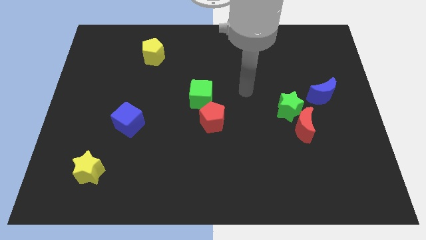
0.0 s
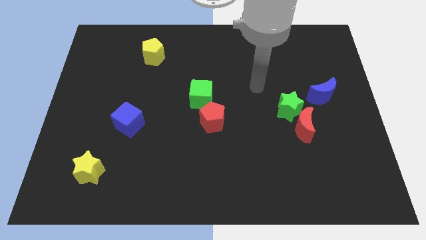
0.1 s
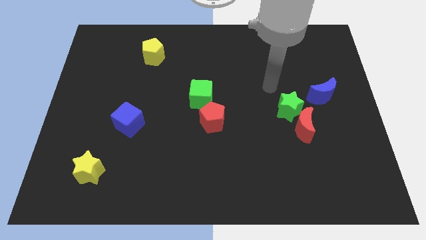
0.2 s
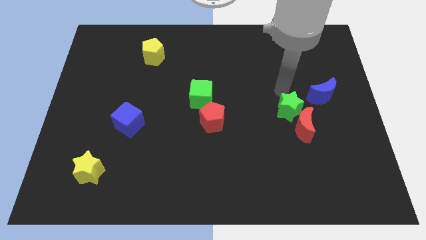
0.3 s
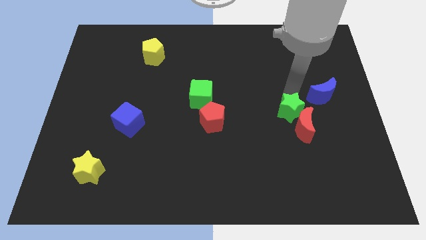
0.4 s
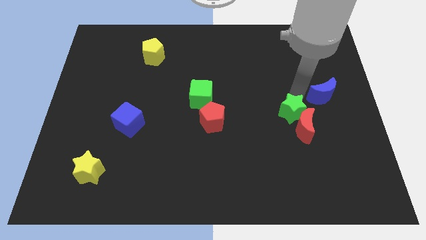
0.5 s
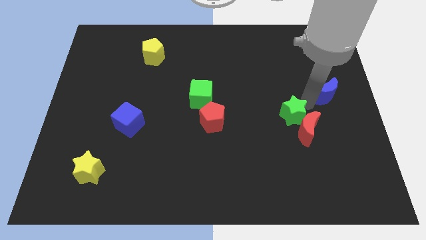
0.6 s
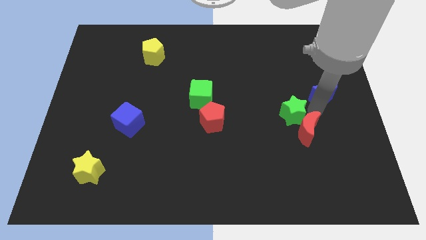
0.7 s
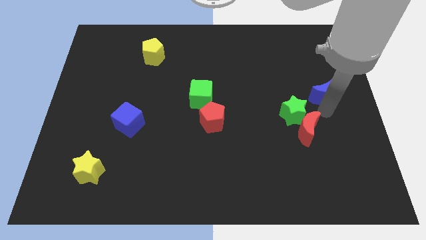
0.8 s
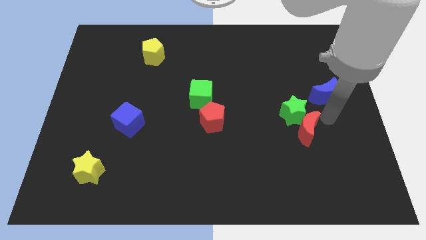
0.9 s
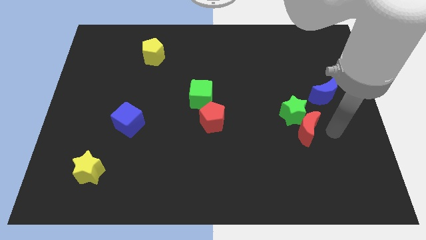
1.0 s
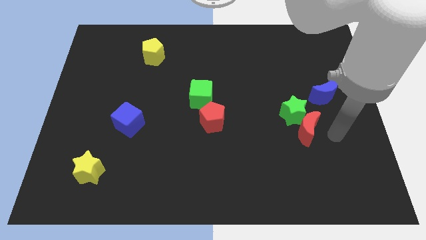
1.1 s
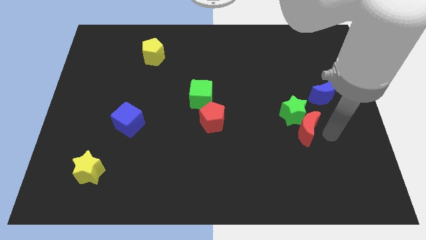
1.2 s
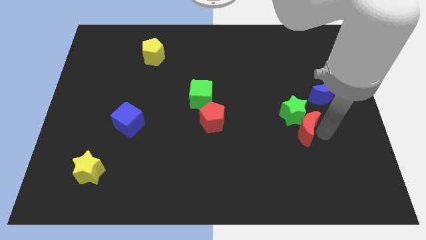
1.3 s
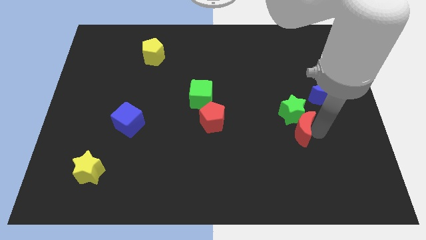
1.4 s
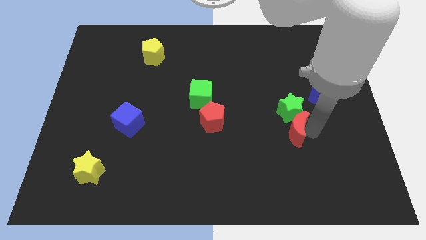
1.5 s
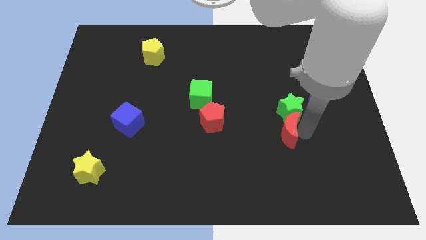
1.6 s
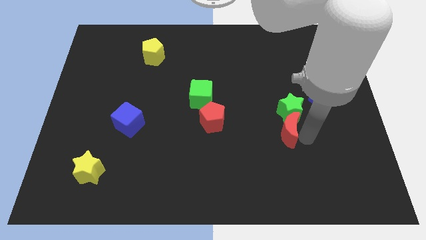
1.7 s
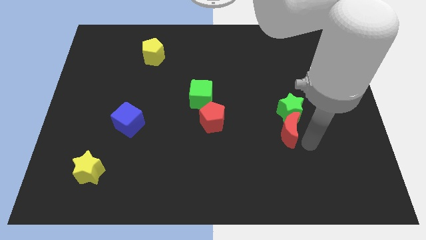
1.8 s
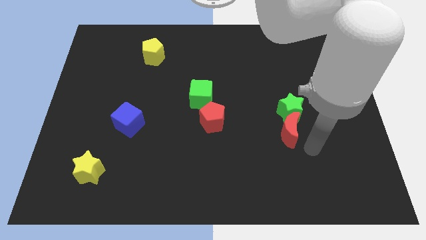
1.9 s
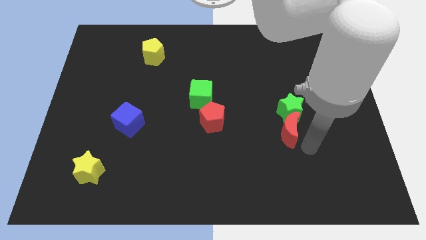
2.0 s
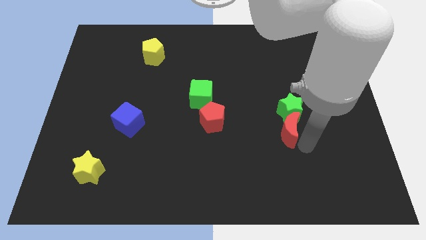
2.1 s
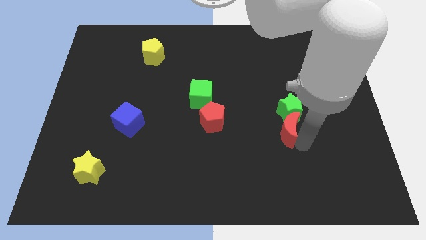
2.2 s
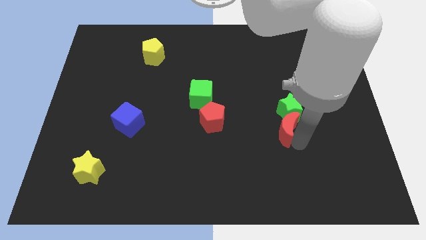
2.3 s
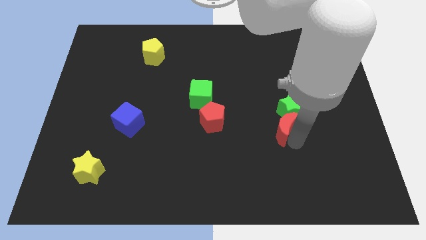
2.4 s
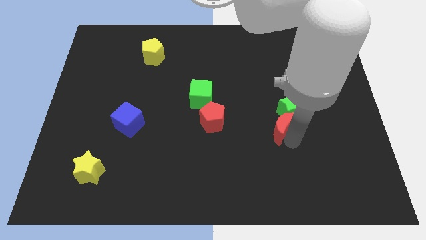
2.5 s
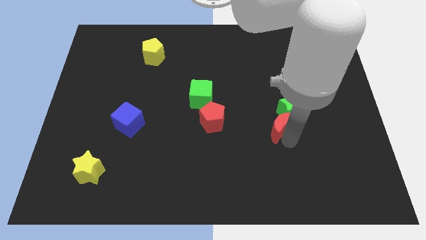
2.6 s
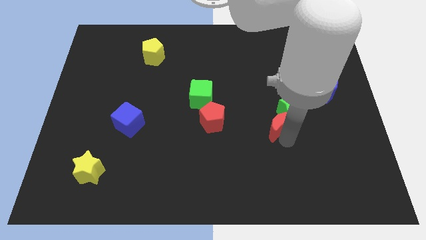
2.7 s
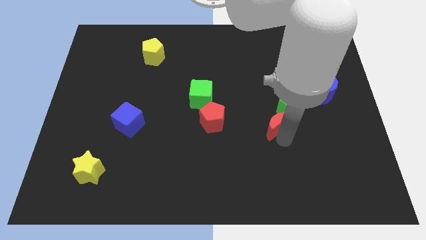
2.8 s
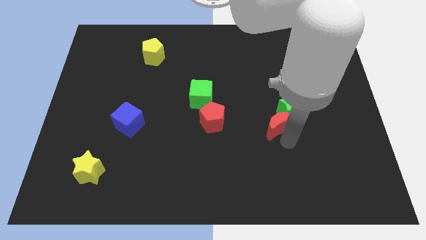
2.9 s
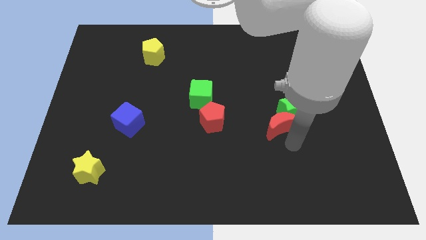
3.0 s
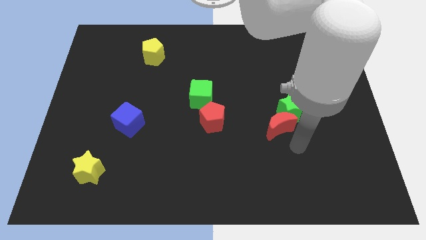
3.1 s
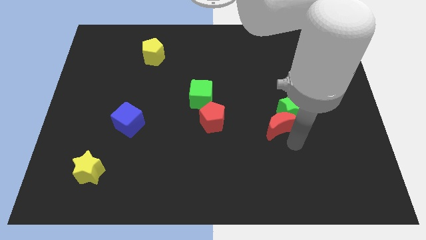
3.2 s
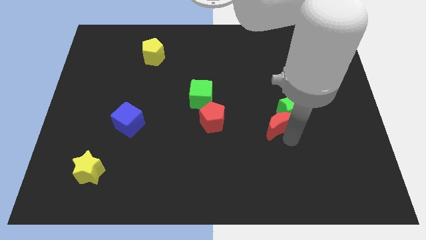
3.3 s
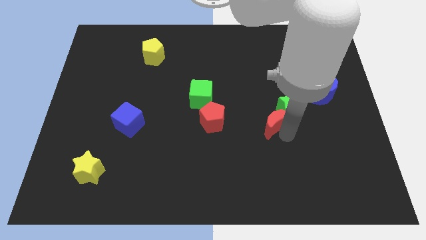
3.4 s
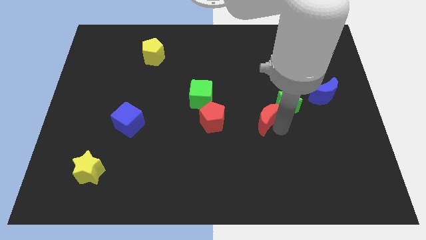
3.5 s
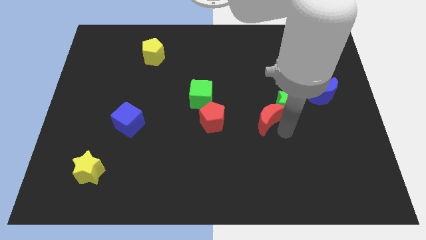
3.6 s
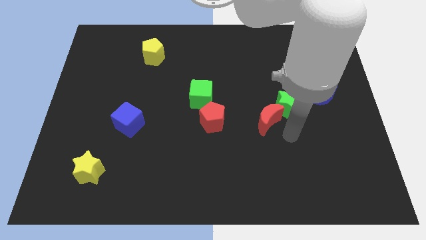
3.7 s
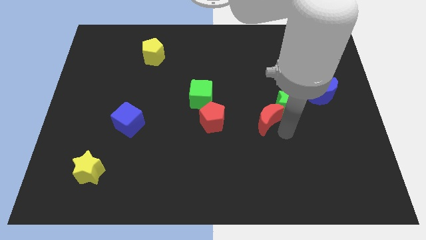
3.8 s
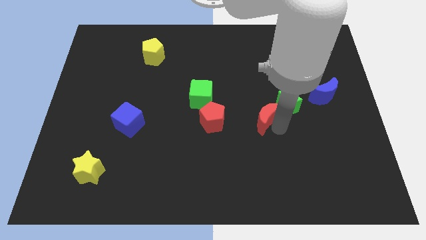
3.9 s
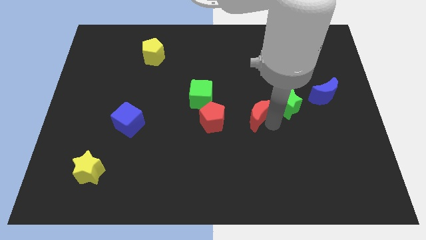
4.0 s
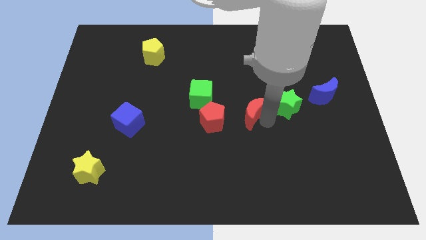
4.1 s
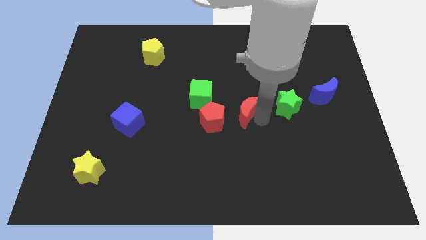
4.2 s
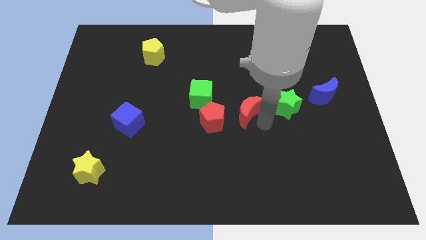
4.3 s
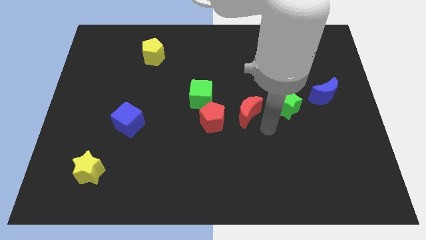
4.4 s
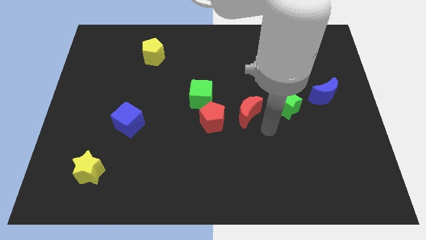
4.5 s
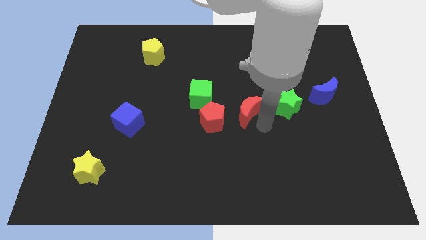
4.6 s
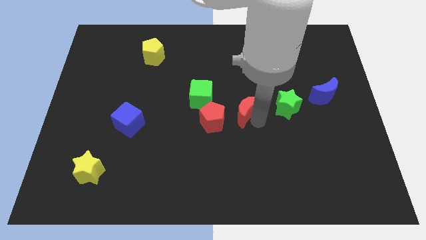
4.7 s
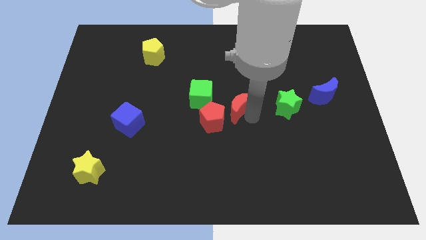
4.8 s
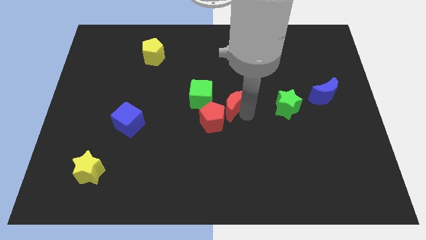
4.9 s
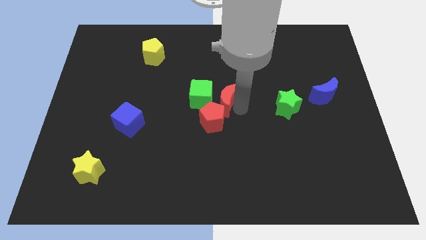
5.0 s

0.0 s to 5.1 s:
move the red moon to the green cube

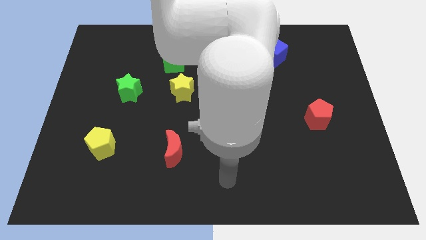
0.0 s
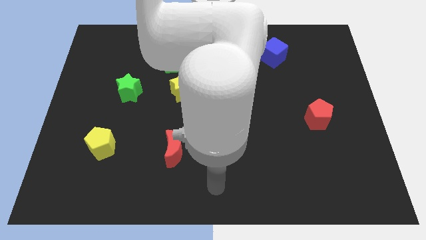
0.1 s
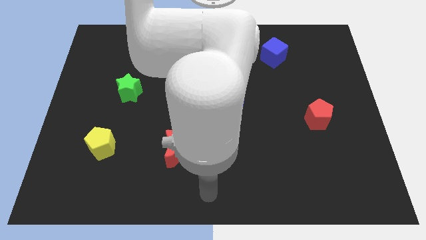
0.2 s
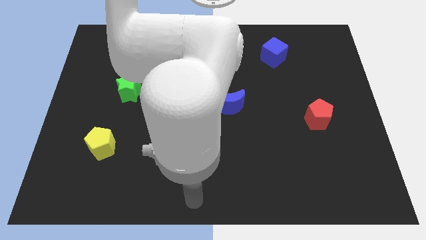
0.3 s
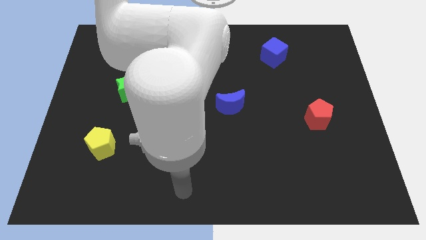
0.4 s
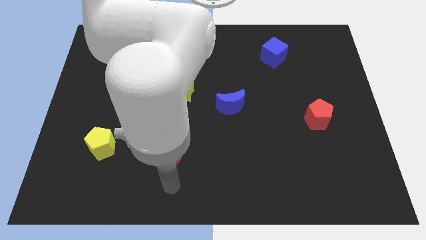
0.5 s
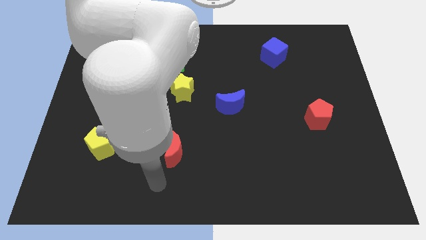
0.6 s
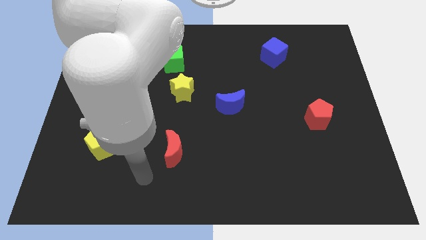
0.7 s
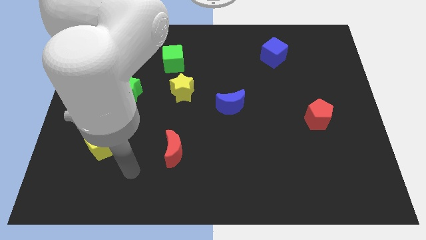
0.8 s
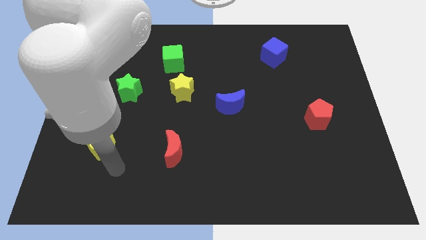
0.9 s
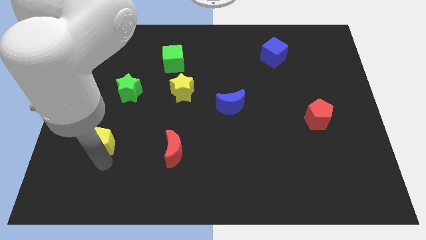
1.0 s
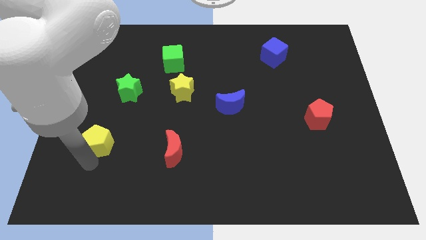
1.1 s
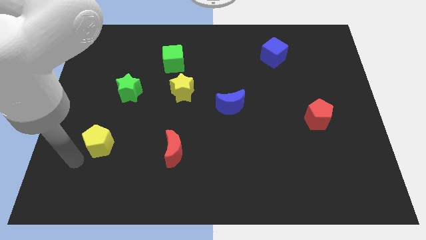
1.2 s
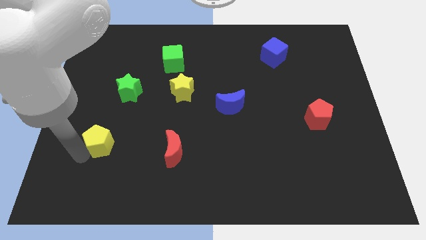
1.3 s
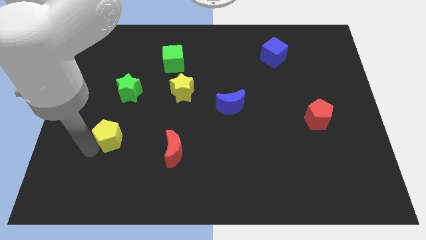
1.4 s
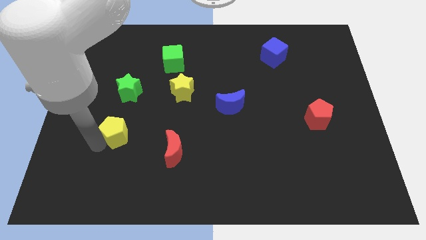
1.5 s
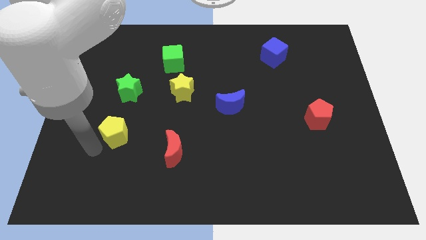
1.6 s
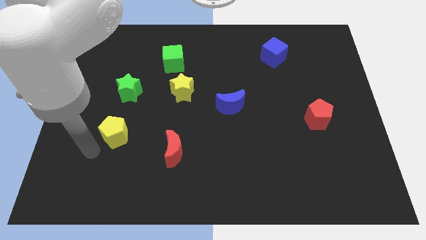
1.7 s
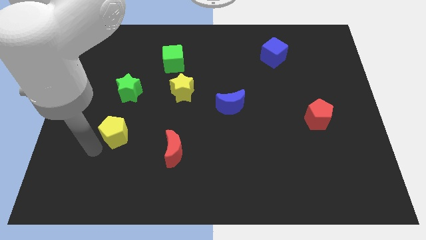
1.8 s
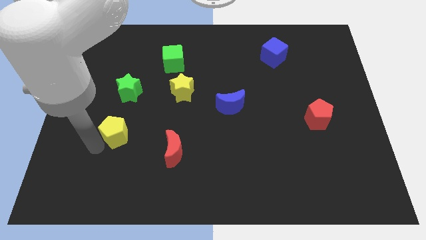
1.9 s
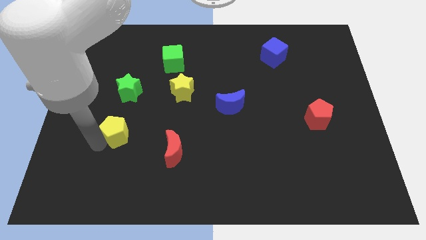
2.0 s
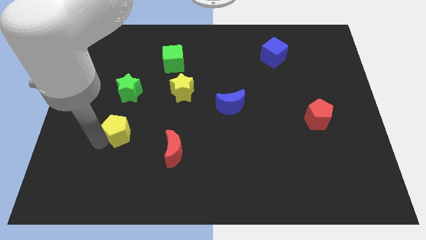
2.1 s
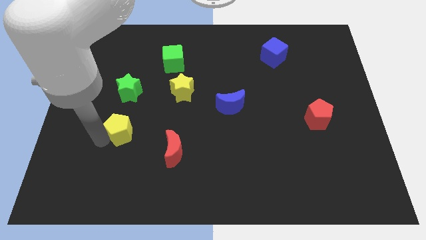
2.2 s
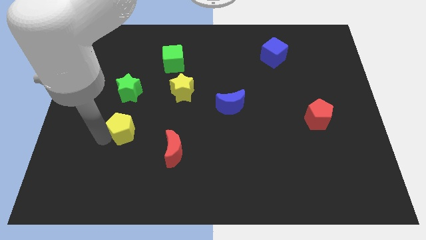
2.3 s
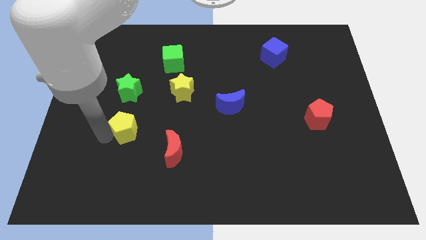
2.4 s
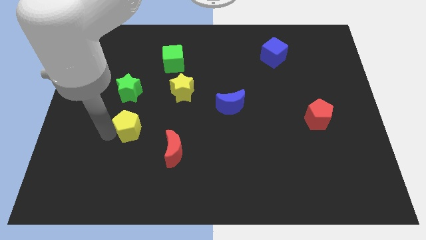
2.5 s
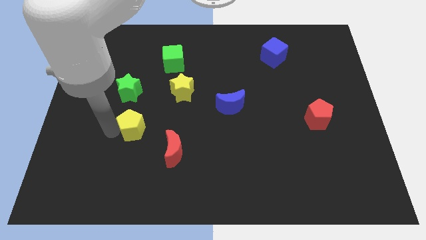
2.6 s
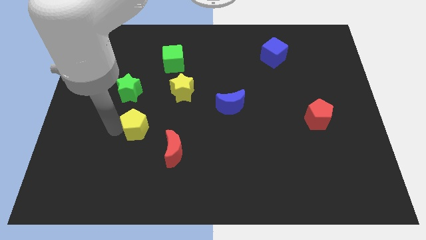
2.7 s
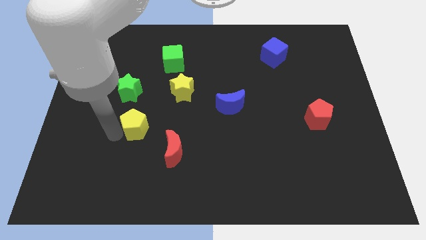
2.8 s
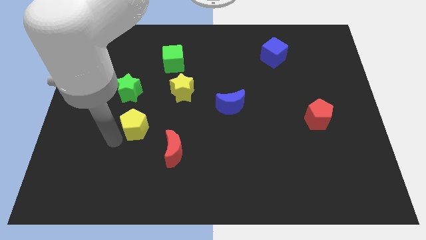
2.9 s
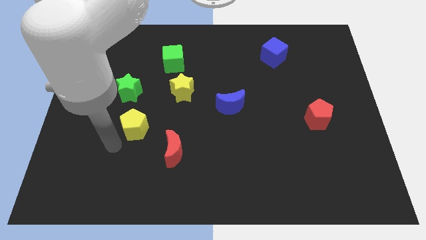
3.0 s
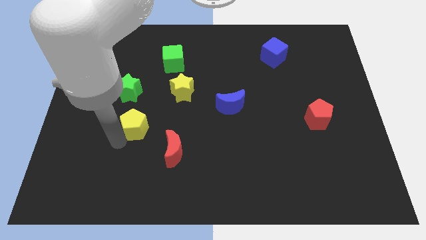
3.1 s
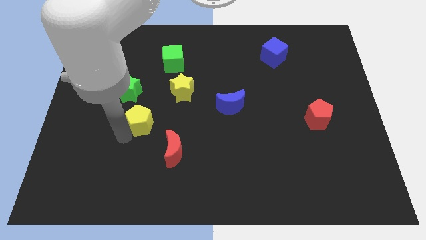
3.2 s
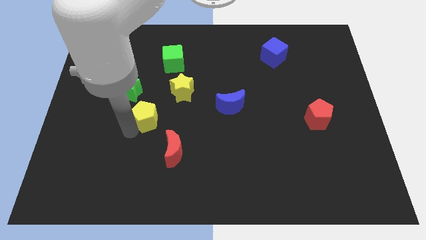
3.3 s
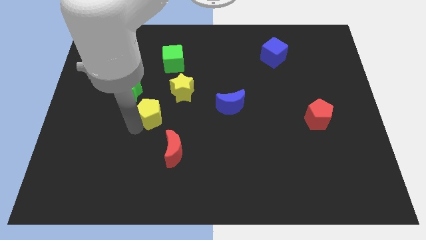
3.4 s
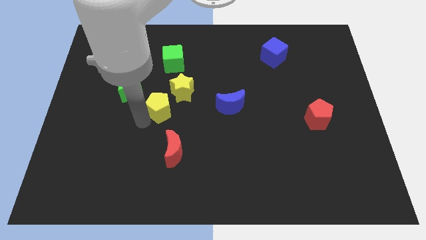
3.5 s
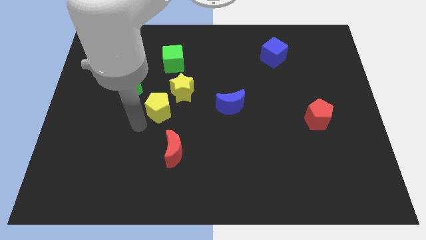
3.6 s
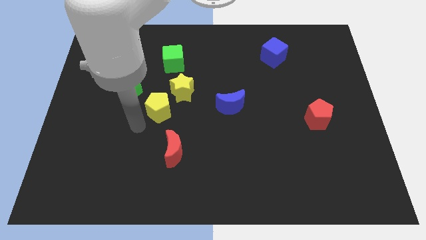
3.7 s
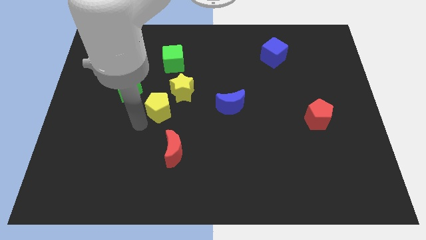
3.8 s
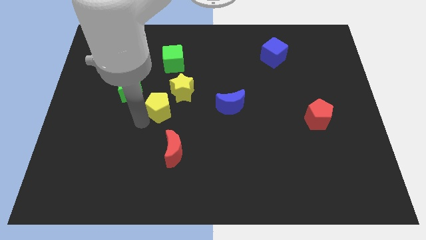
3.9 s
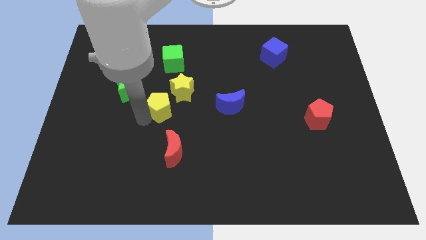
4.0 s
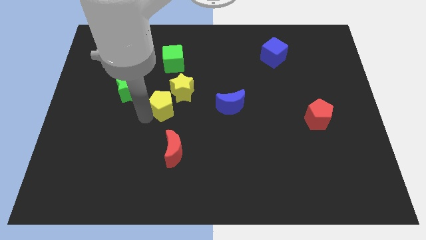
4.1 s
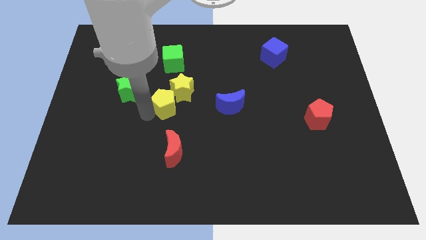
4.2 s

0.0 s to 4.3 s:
put the yellow pentagon to the yellow star
